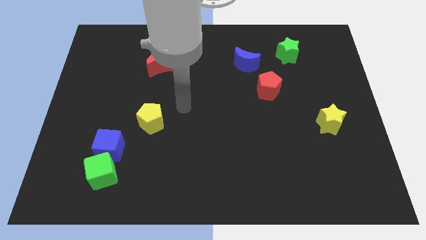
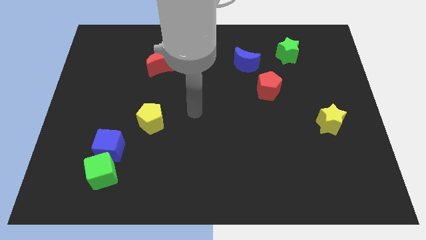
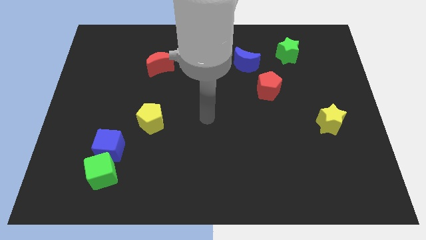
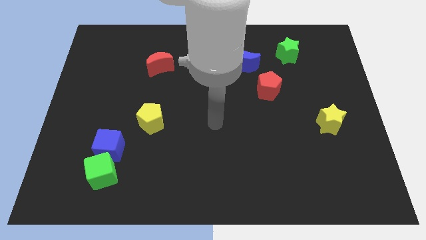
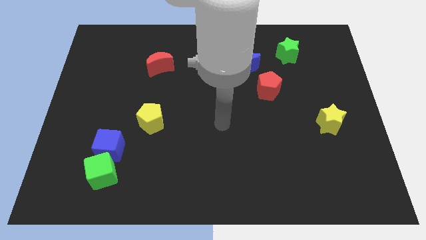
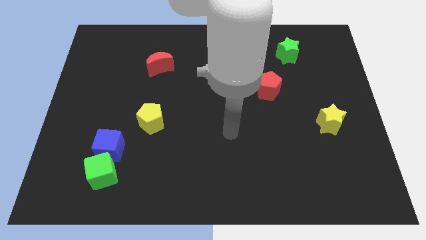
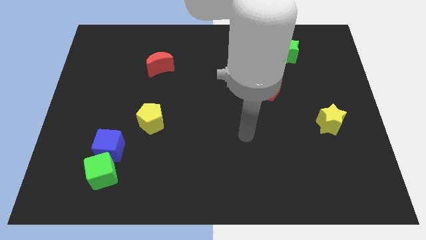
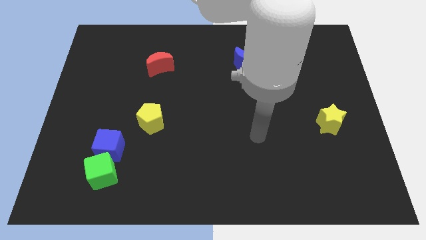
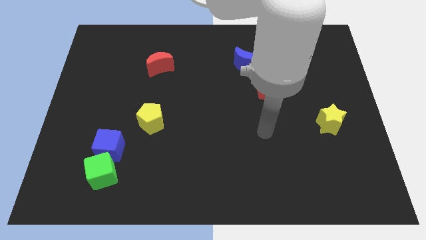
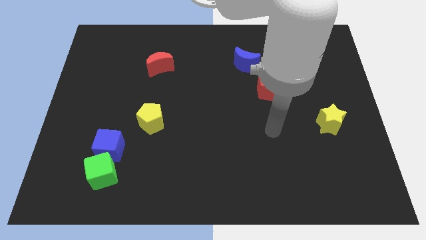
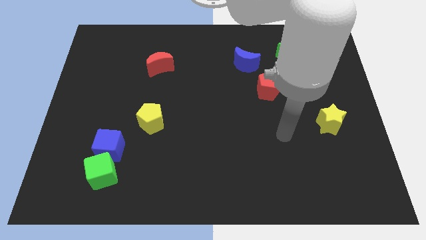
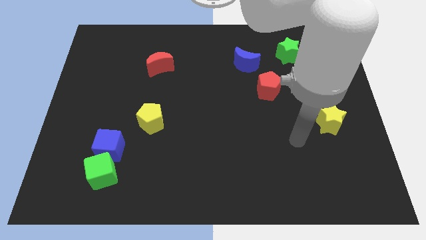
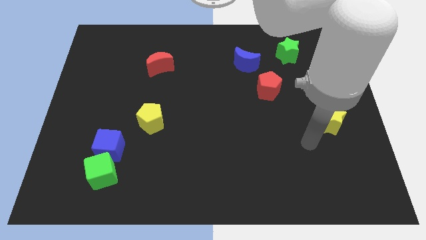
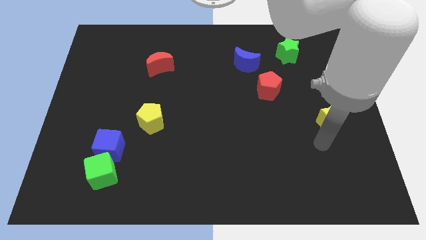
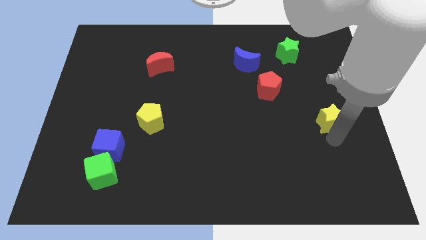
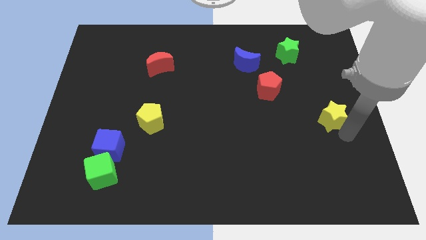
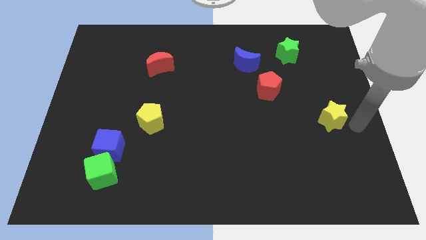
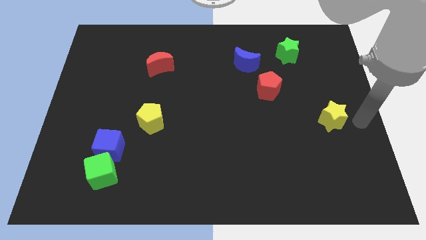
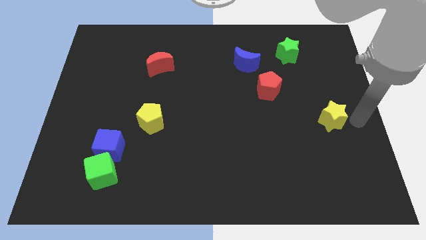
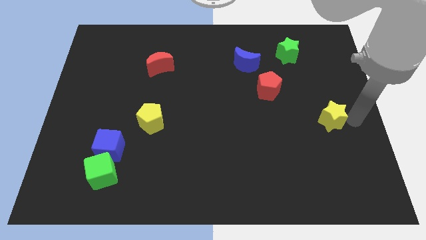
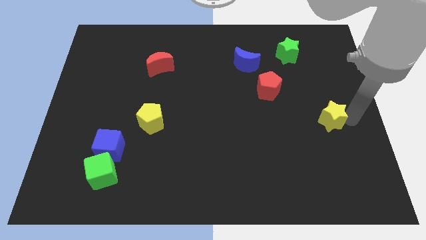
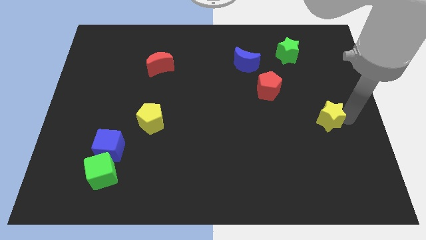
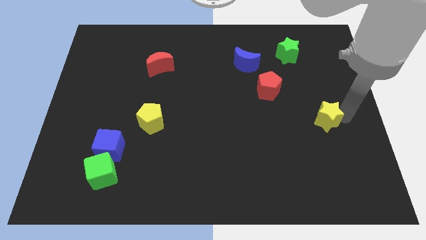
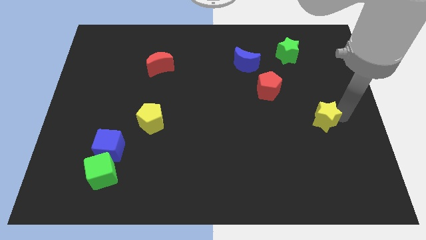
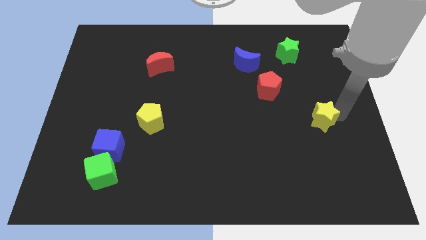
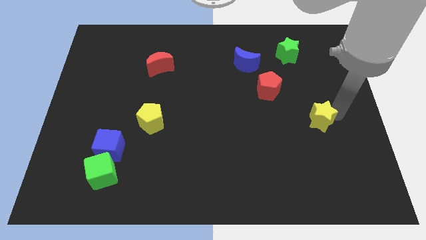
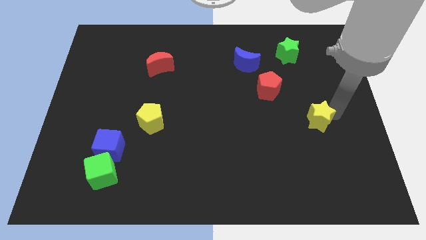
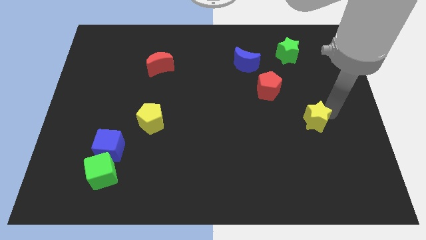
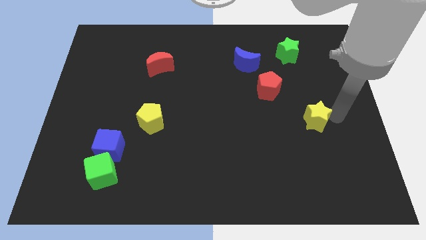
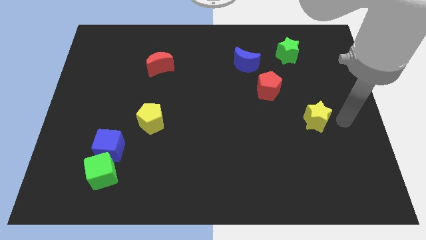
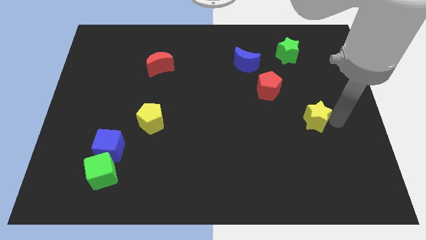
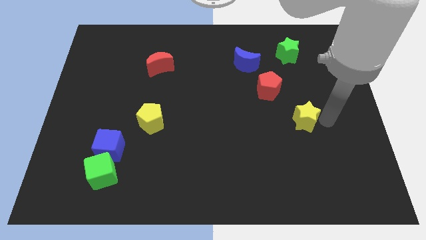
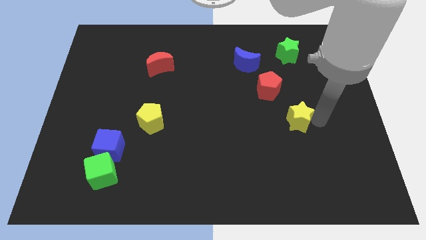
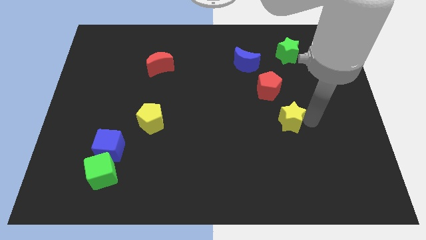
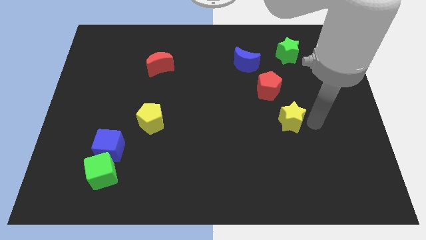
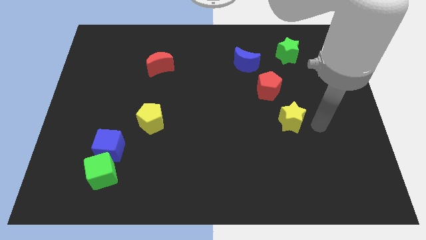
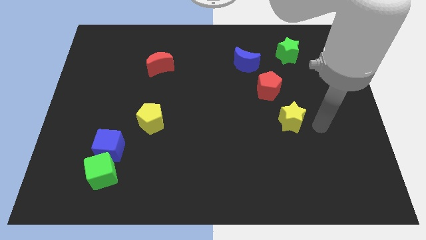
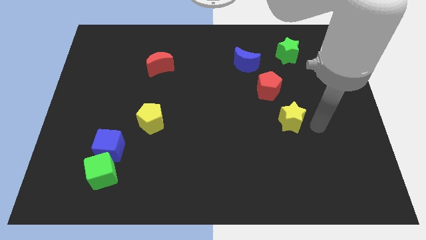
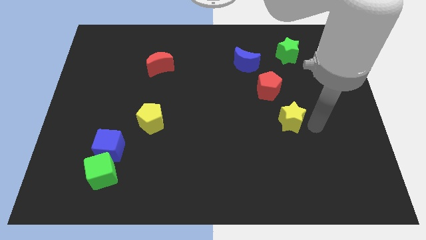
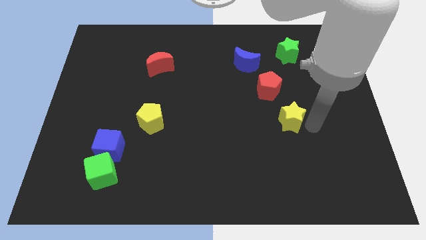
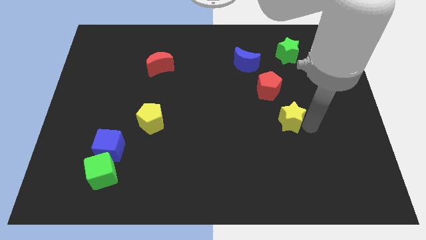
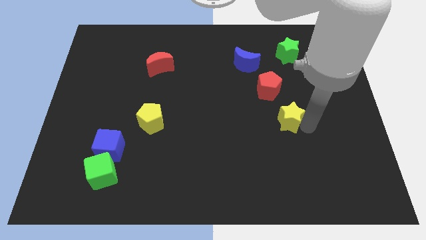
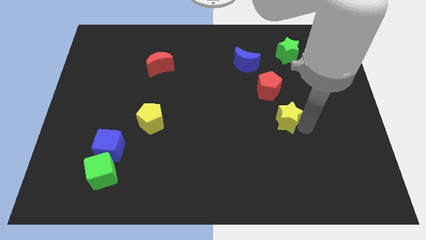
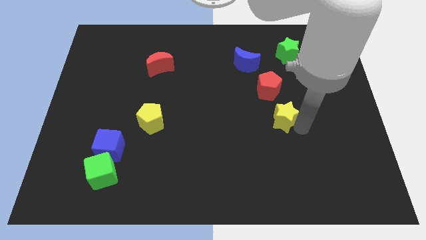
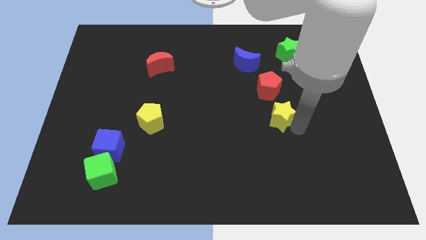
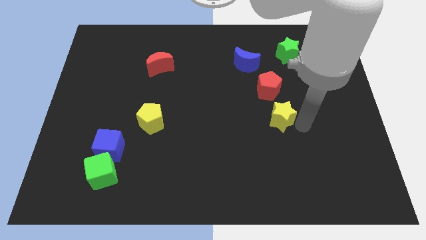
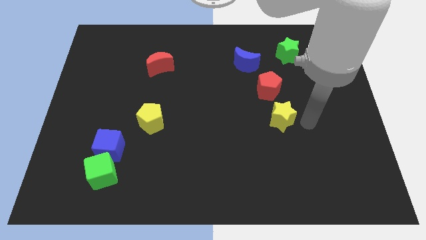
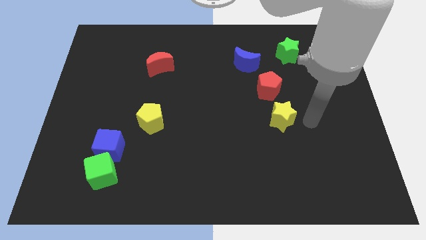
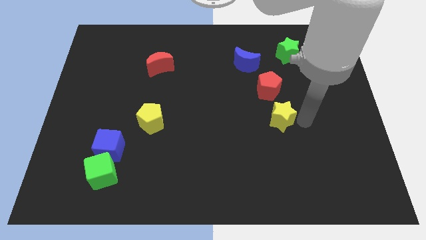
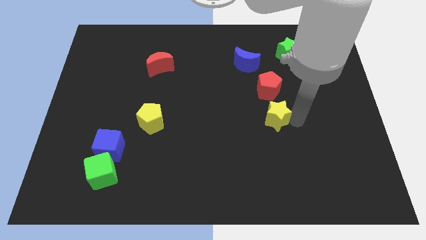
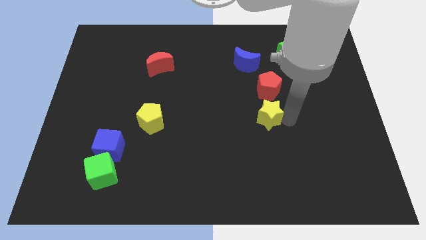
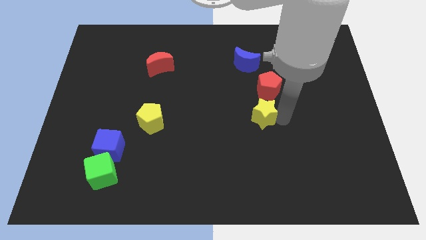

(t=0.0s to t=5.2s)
move the yellow star to the center

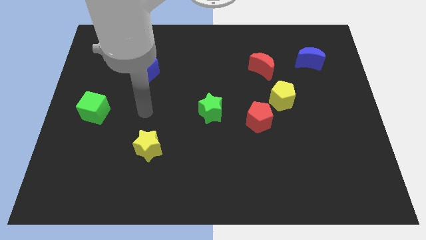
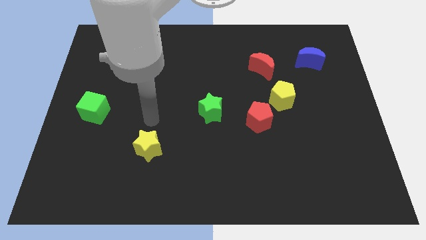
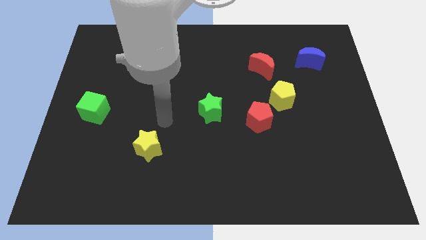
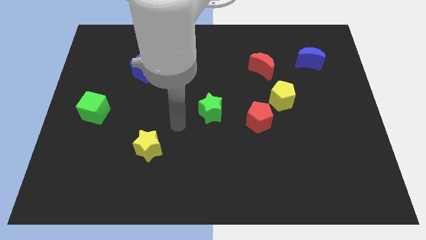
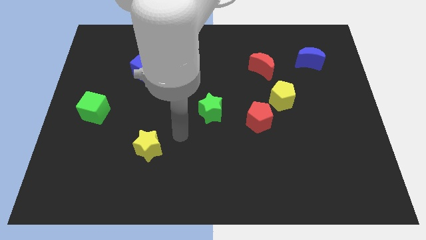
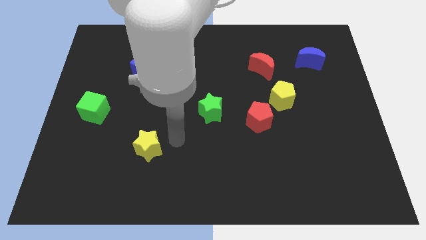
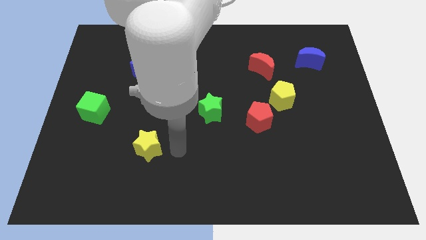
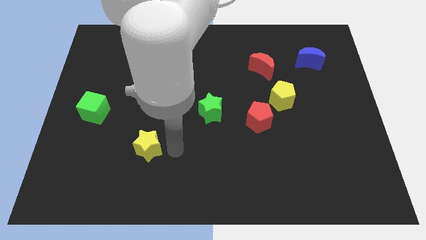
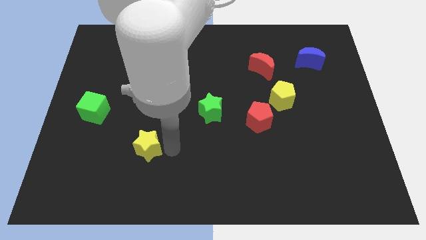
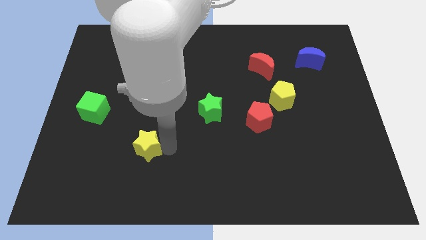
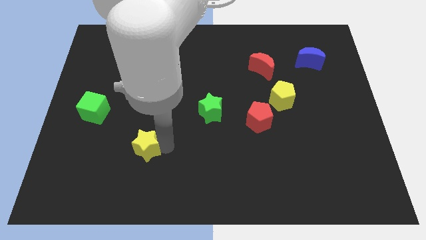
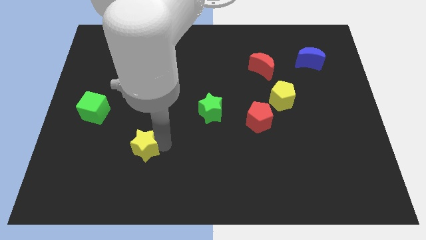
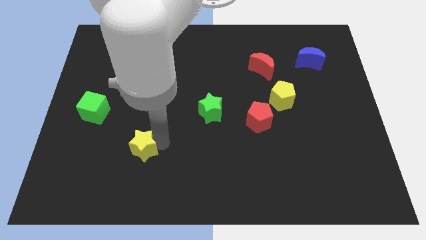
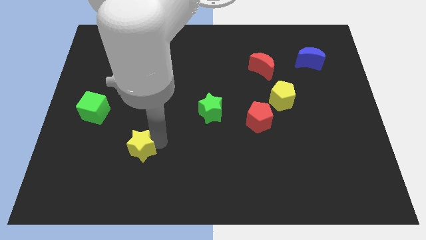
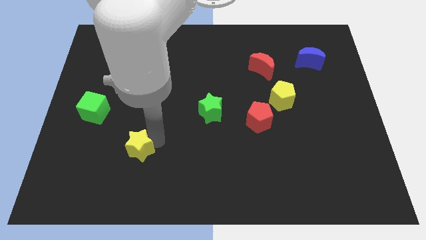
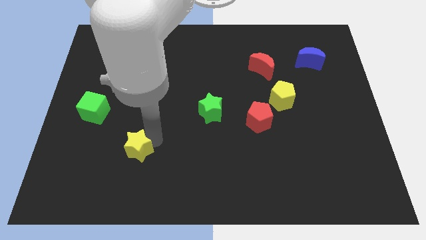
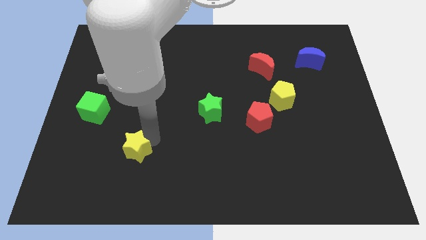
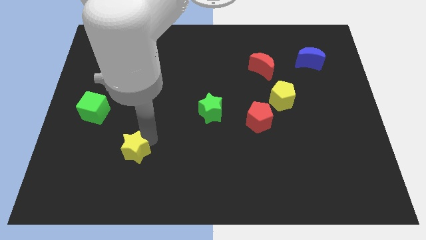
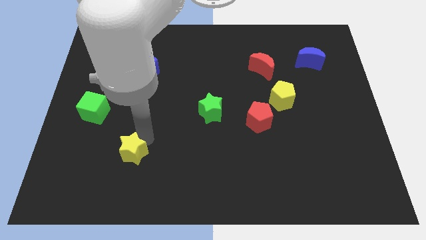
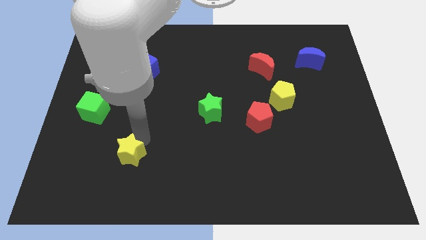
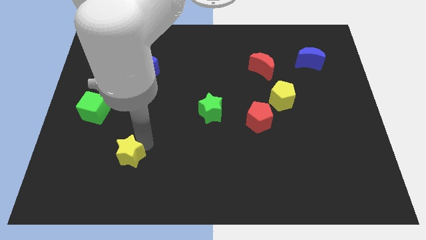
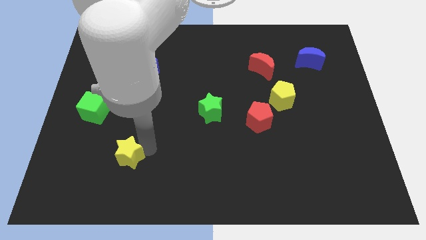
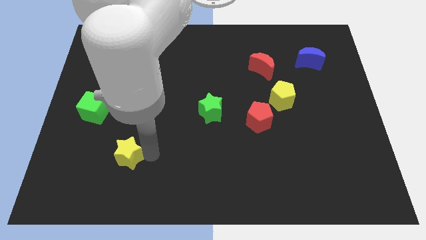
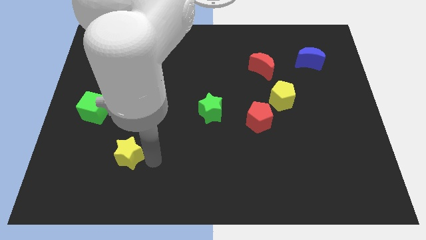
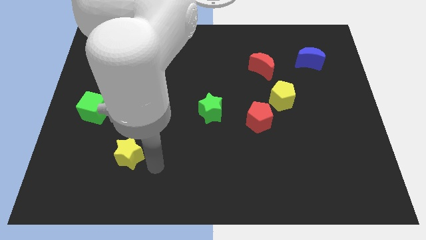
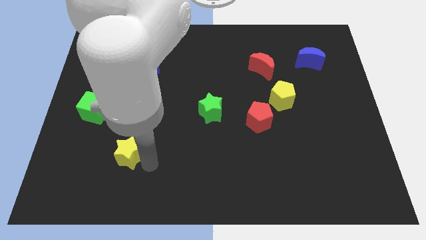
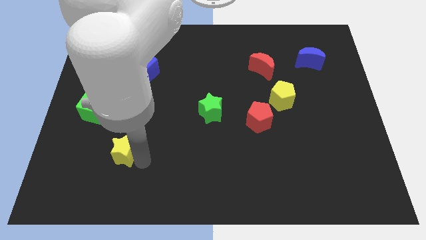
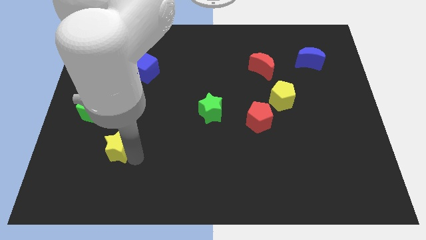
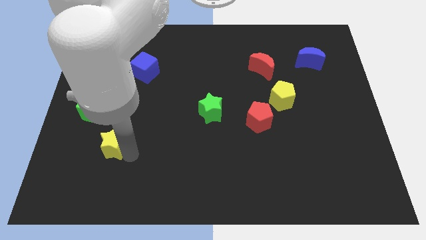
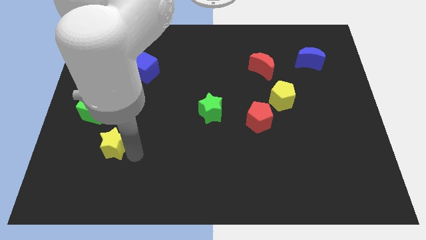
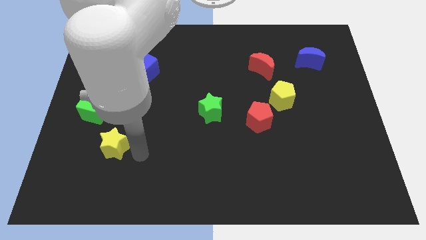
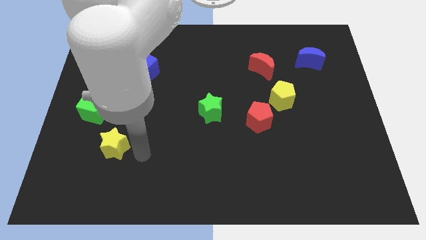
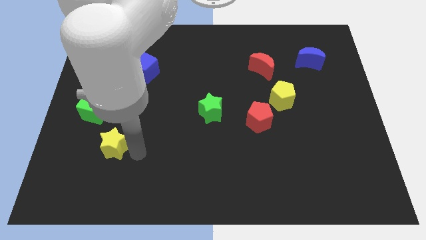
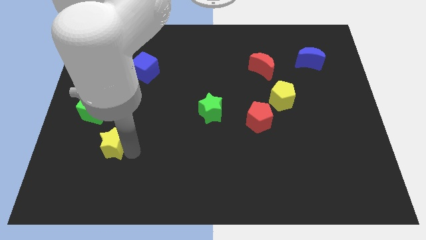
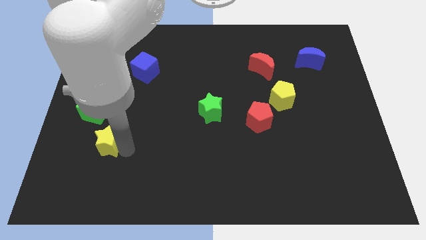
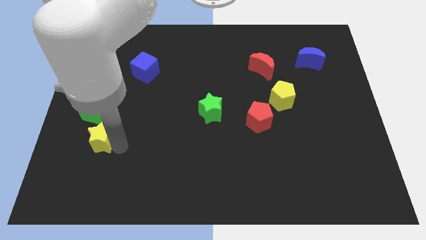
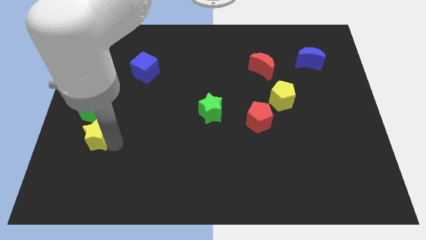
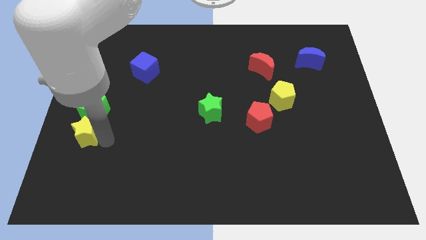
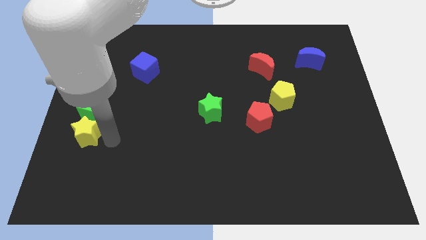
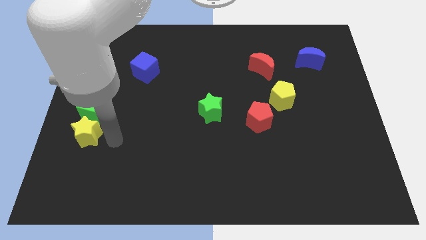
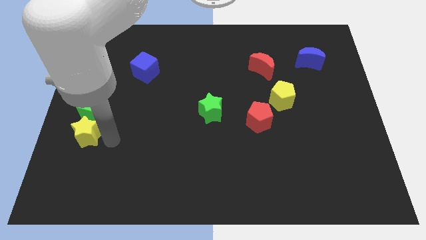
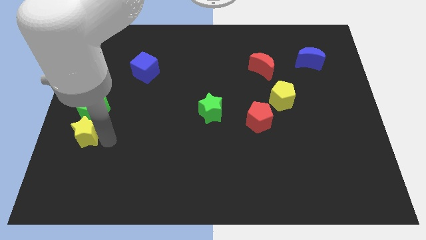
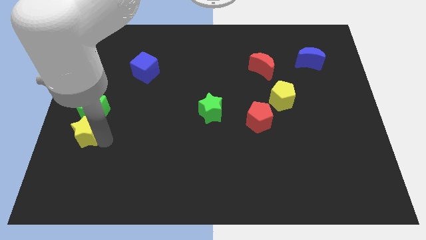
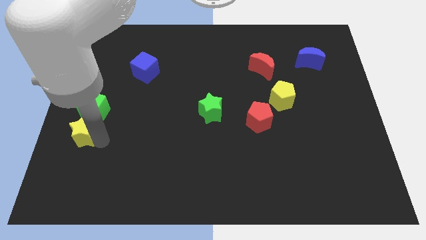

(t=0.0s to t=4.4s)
move the yellow star to the center left
